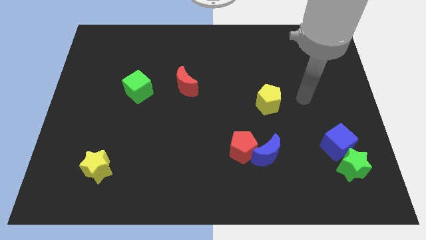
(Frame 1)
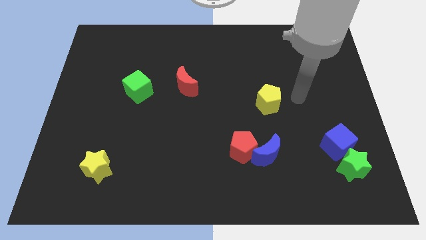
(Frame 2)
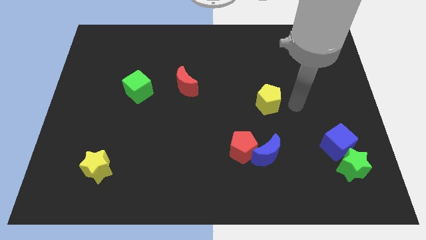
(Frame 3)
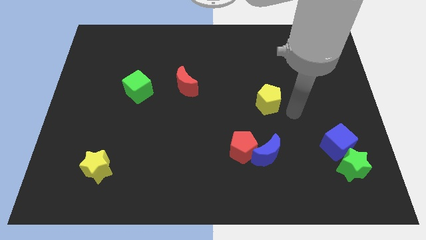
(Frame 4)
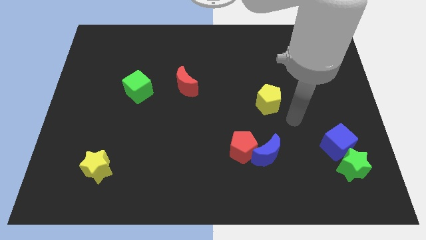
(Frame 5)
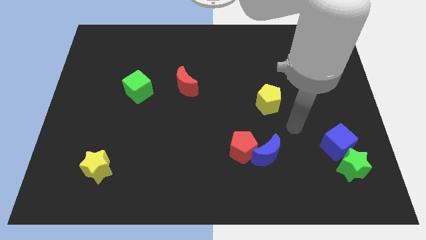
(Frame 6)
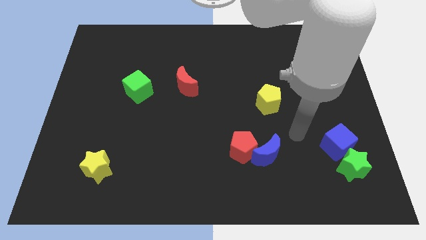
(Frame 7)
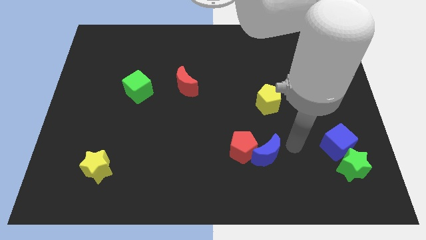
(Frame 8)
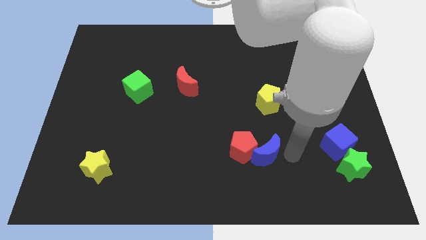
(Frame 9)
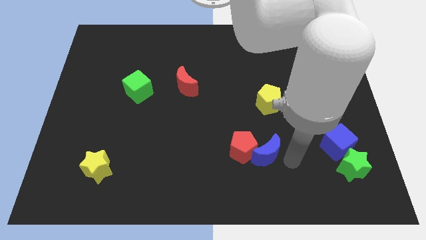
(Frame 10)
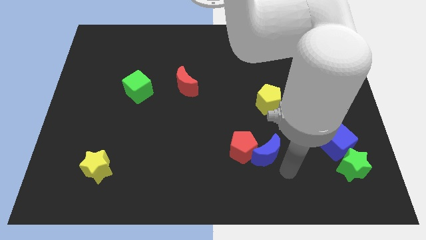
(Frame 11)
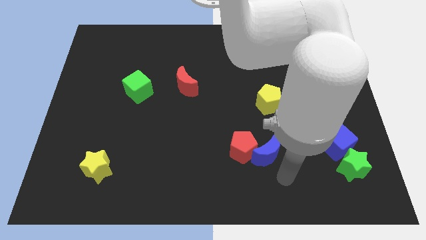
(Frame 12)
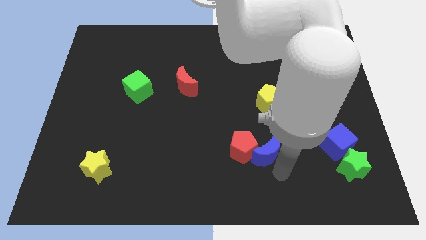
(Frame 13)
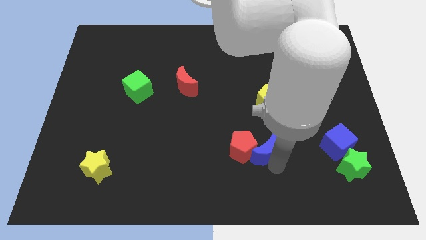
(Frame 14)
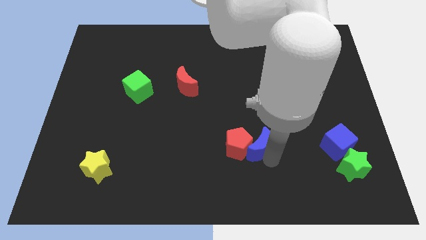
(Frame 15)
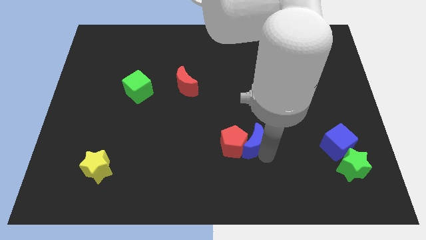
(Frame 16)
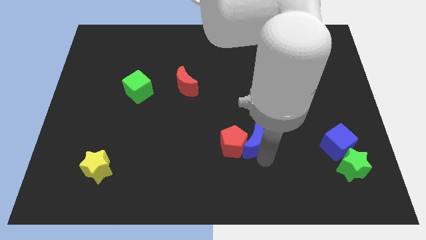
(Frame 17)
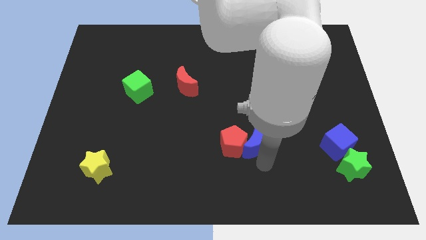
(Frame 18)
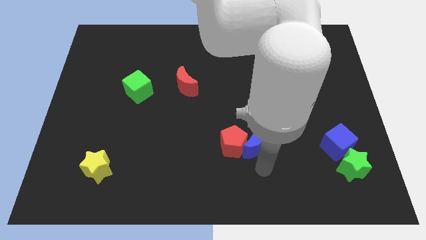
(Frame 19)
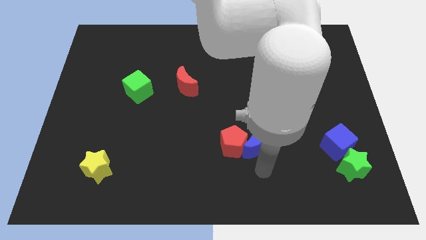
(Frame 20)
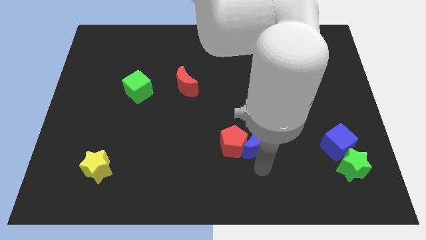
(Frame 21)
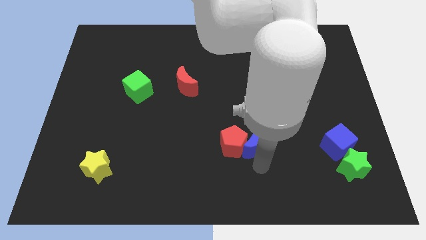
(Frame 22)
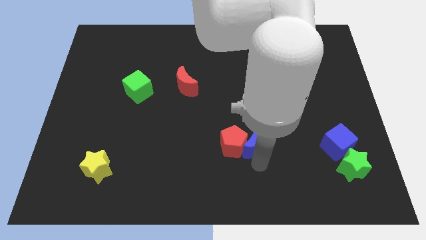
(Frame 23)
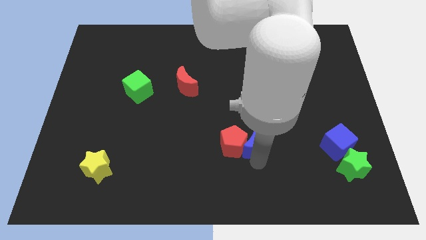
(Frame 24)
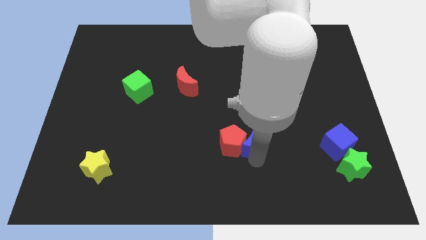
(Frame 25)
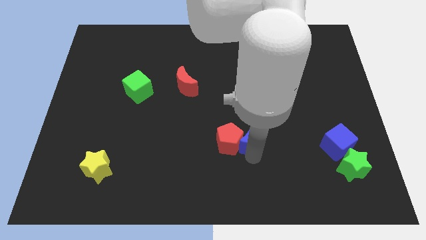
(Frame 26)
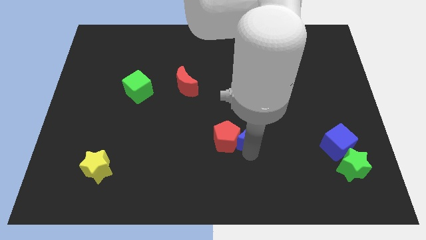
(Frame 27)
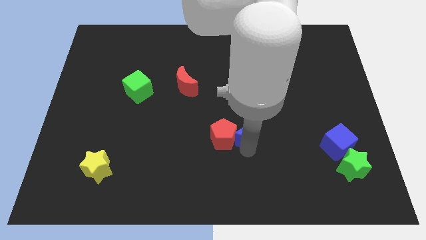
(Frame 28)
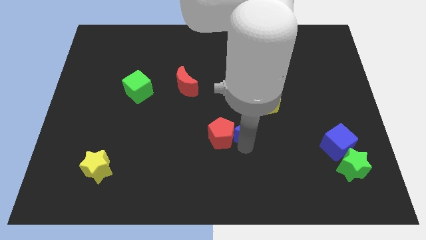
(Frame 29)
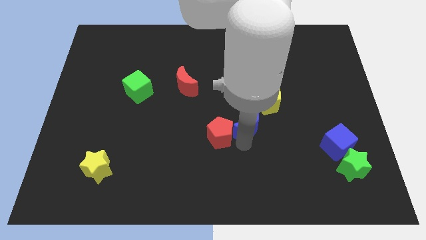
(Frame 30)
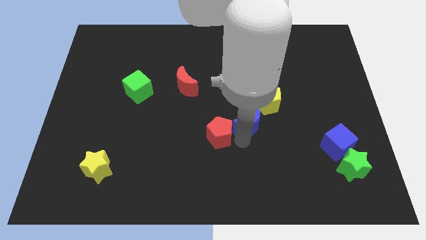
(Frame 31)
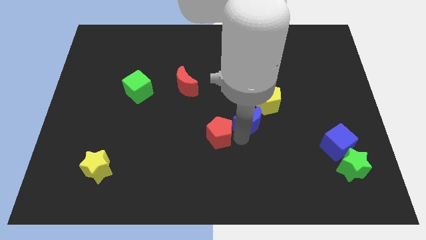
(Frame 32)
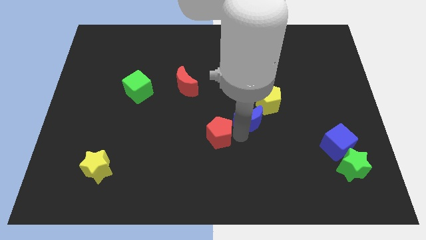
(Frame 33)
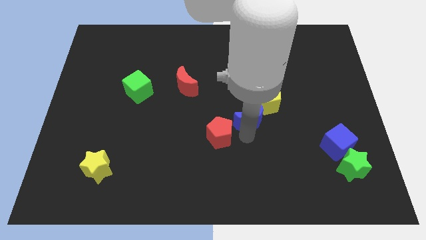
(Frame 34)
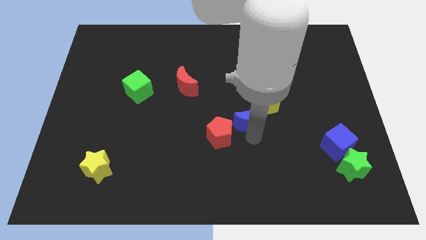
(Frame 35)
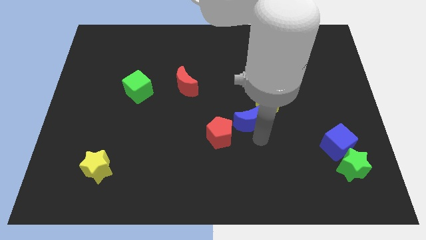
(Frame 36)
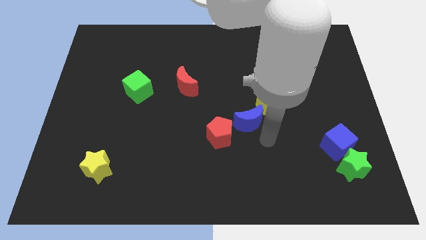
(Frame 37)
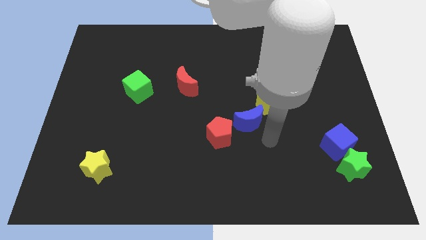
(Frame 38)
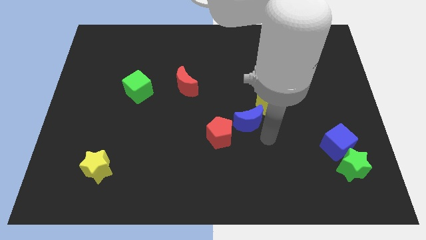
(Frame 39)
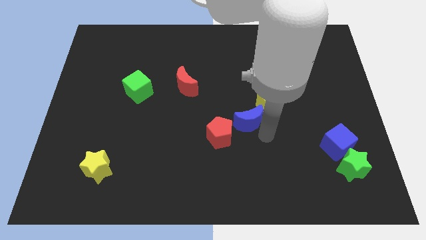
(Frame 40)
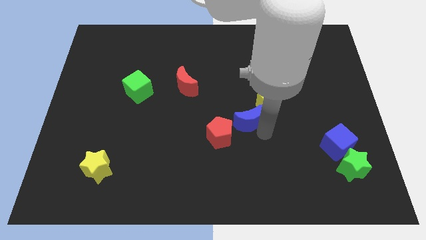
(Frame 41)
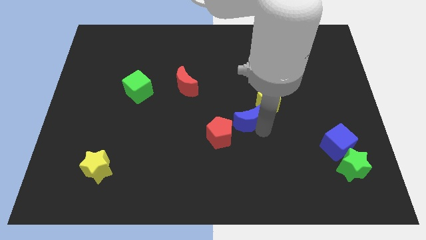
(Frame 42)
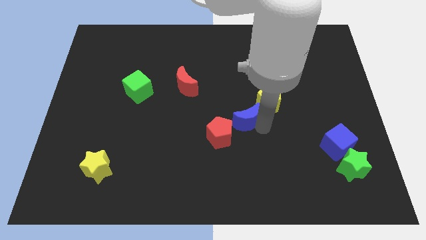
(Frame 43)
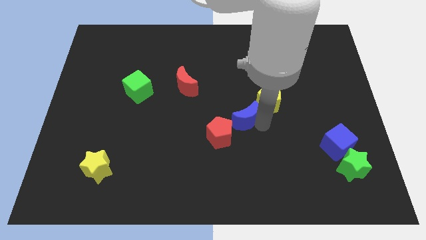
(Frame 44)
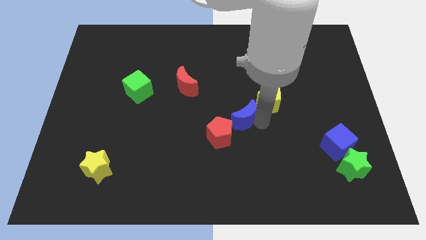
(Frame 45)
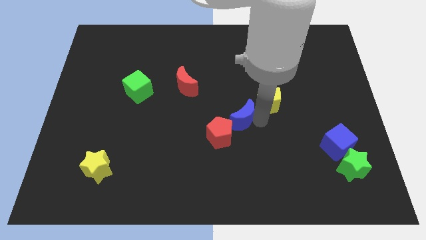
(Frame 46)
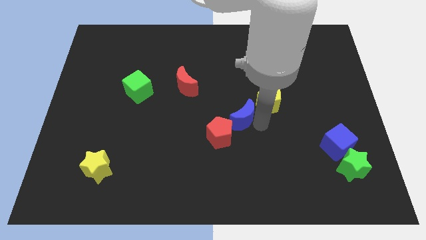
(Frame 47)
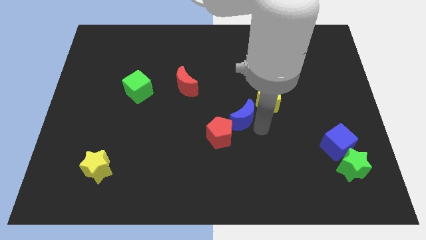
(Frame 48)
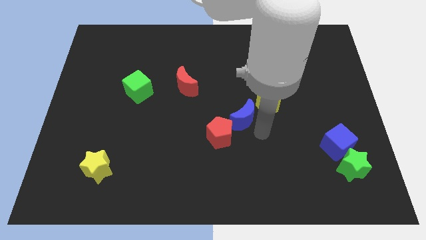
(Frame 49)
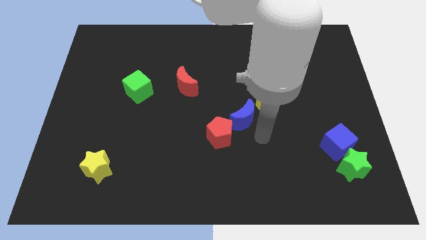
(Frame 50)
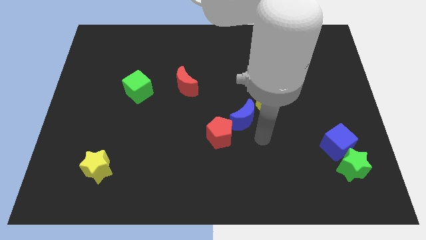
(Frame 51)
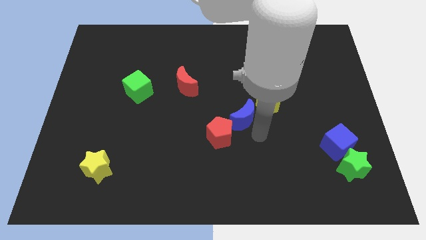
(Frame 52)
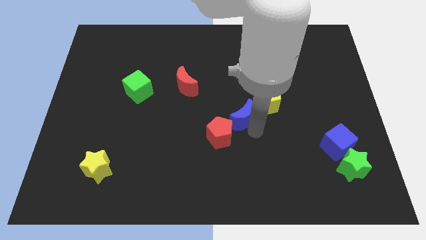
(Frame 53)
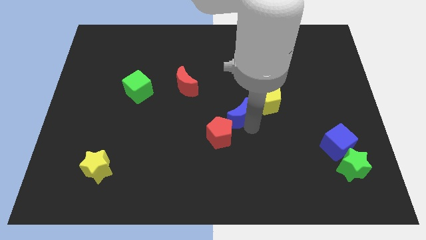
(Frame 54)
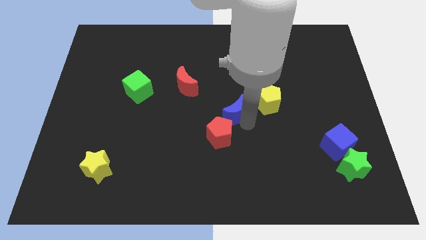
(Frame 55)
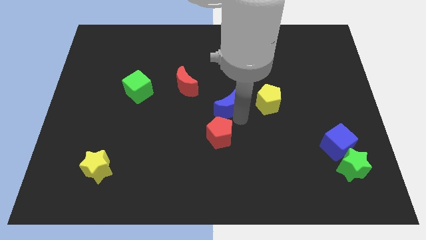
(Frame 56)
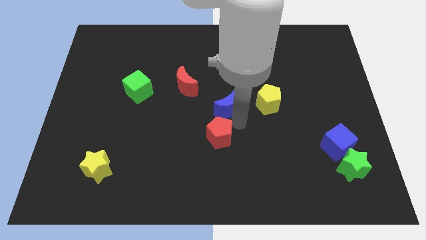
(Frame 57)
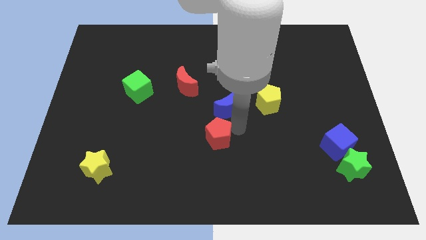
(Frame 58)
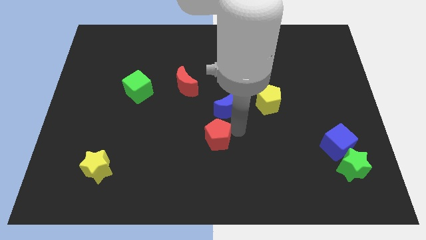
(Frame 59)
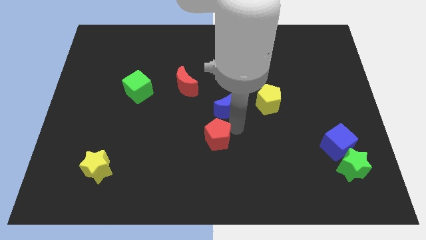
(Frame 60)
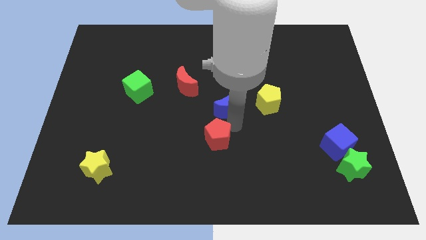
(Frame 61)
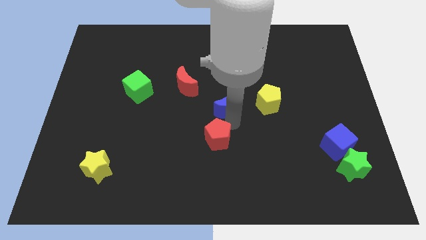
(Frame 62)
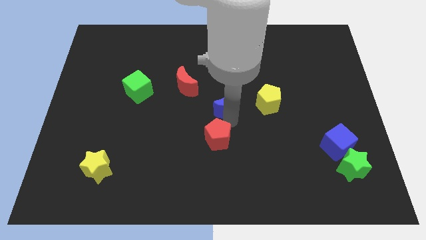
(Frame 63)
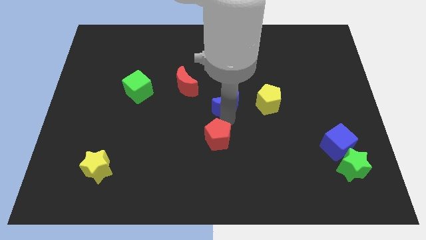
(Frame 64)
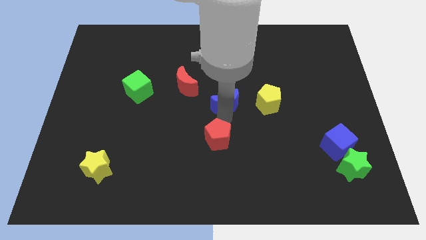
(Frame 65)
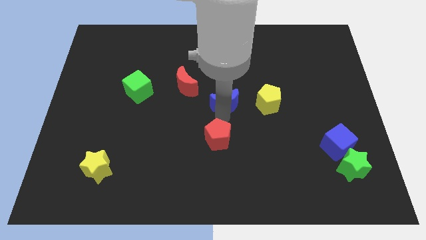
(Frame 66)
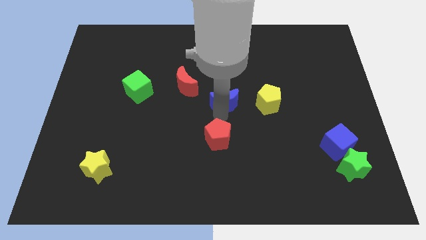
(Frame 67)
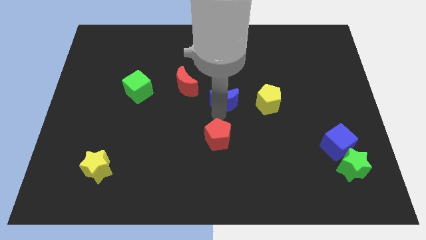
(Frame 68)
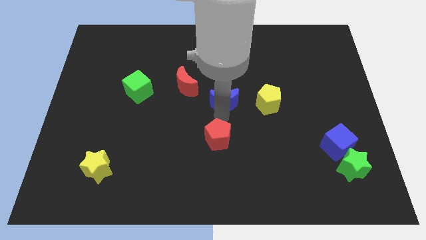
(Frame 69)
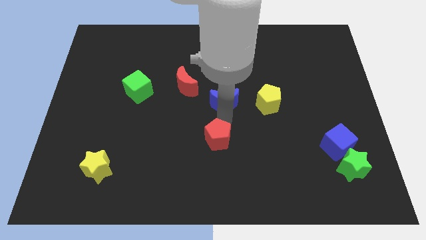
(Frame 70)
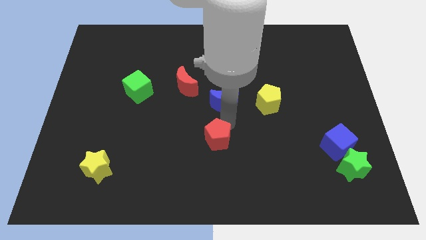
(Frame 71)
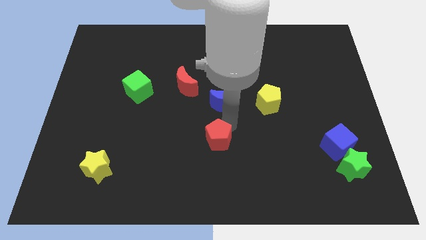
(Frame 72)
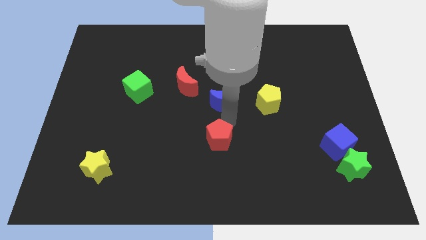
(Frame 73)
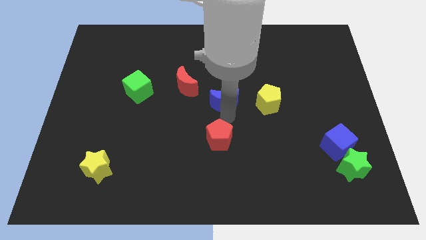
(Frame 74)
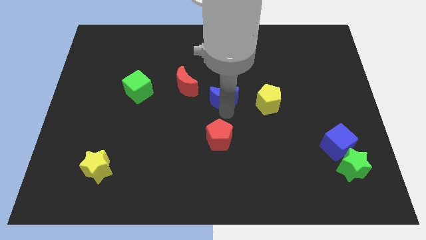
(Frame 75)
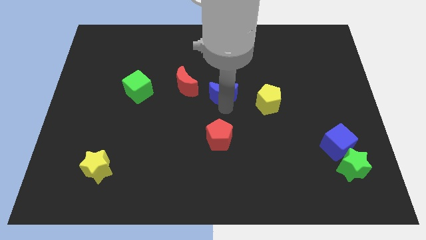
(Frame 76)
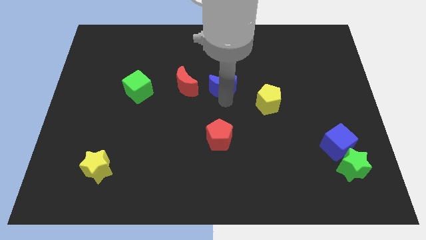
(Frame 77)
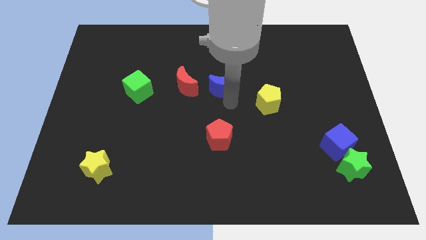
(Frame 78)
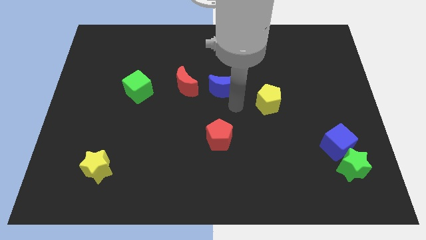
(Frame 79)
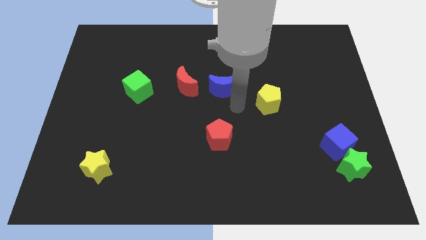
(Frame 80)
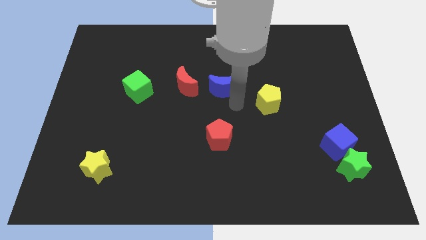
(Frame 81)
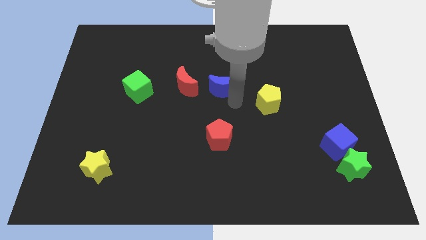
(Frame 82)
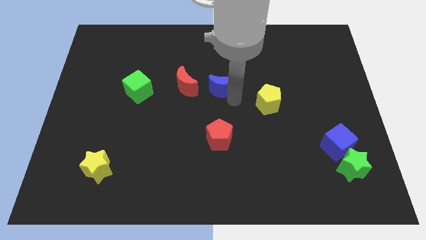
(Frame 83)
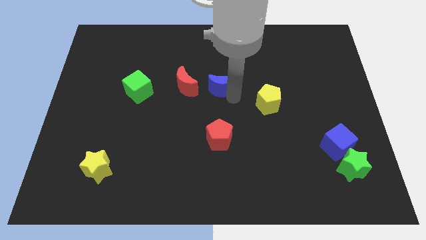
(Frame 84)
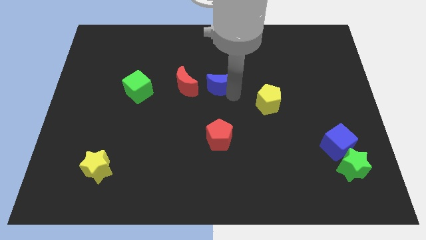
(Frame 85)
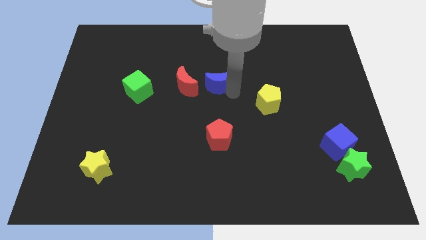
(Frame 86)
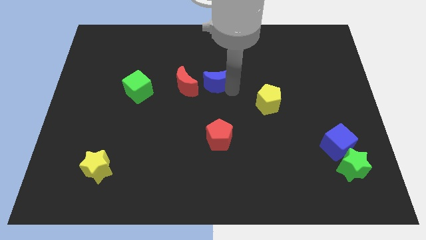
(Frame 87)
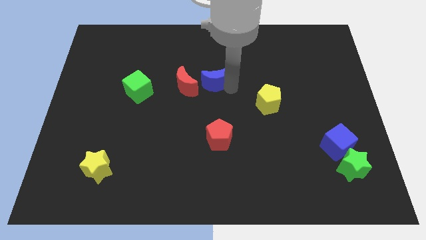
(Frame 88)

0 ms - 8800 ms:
push the blue moon to the top right side of the red moon
